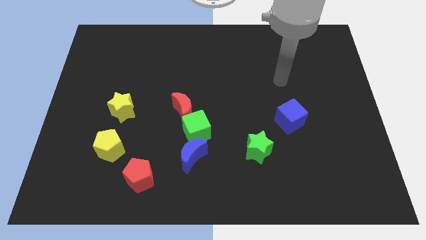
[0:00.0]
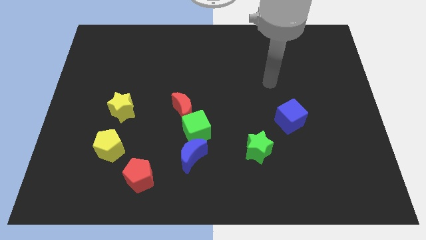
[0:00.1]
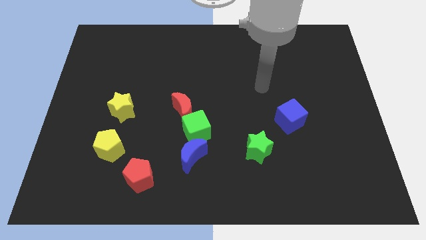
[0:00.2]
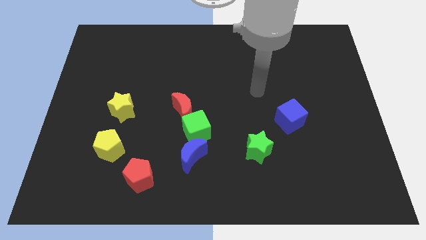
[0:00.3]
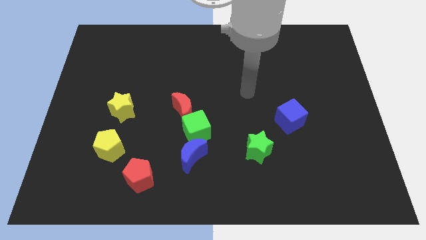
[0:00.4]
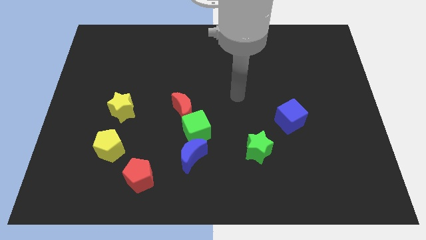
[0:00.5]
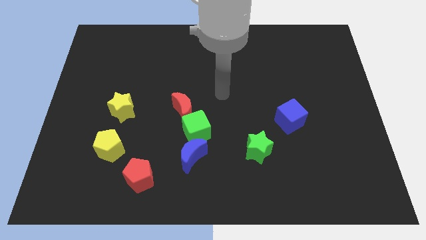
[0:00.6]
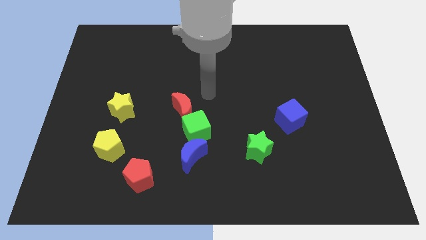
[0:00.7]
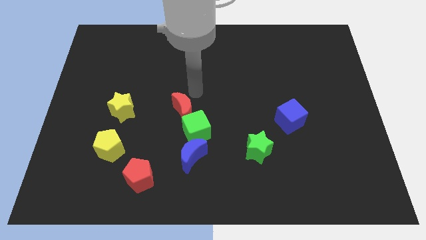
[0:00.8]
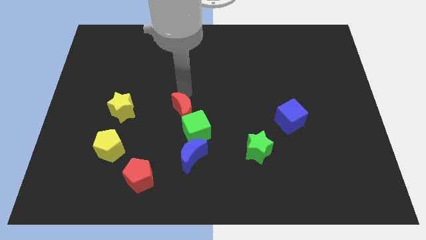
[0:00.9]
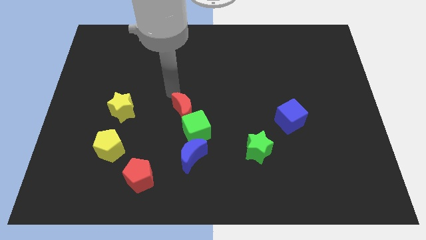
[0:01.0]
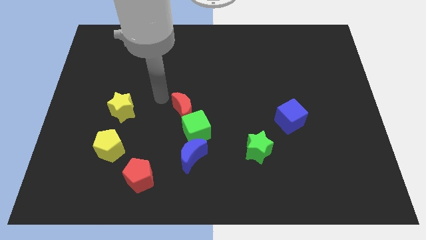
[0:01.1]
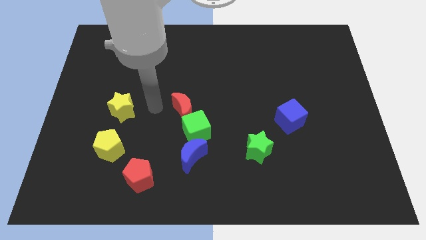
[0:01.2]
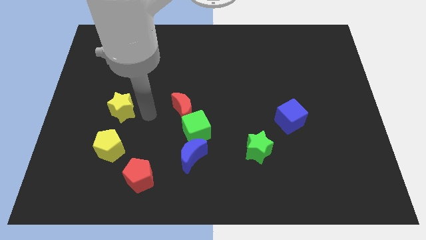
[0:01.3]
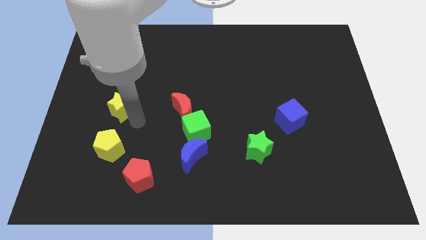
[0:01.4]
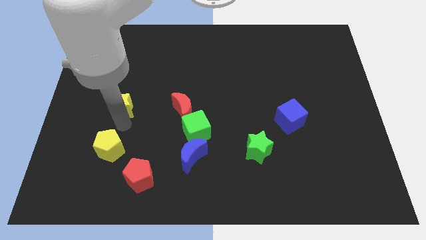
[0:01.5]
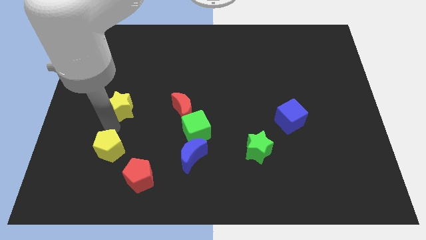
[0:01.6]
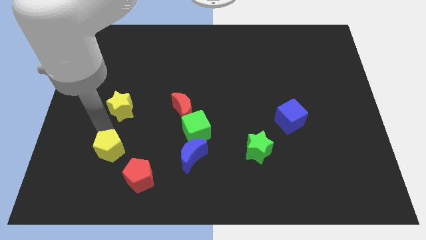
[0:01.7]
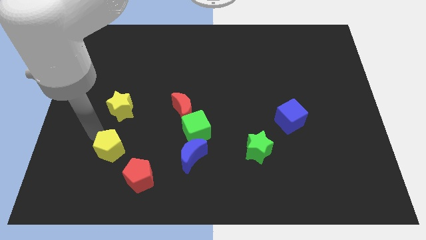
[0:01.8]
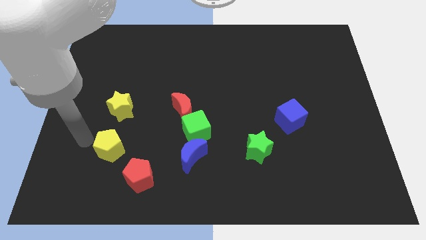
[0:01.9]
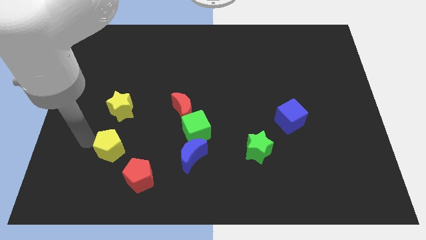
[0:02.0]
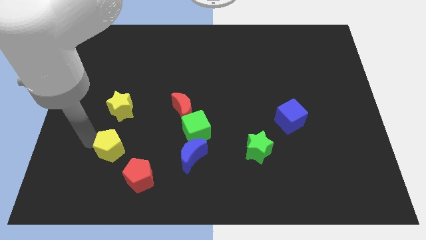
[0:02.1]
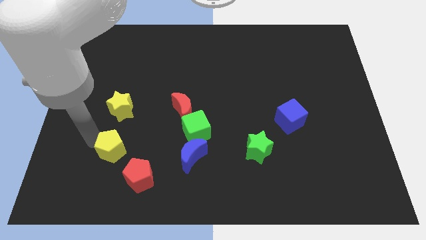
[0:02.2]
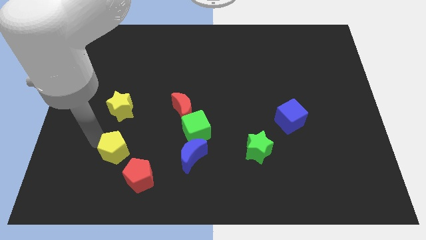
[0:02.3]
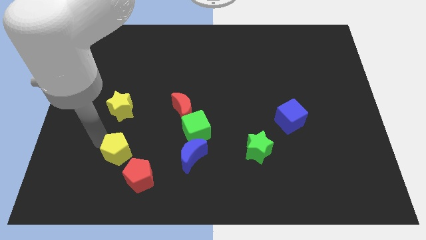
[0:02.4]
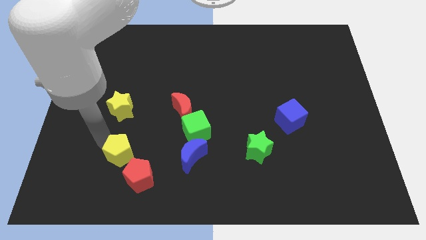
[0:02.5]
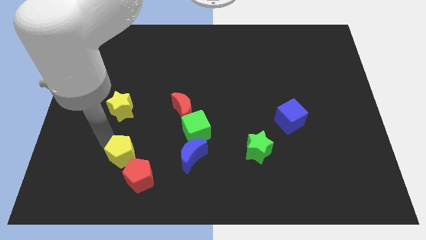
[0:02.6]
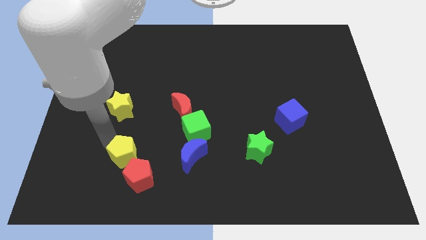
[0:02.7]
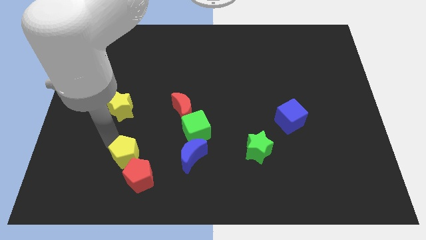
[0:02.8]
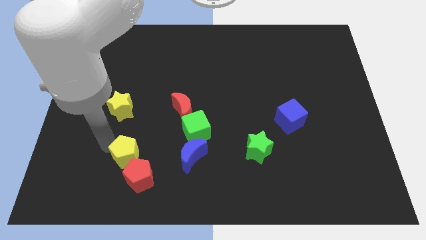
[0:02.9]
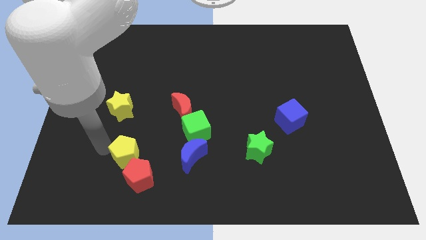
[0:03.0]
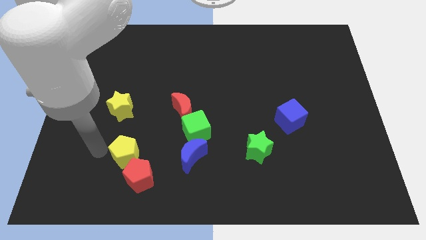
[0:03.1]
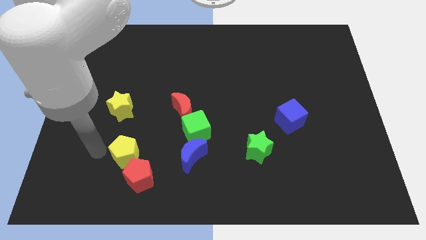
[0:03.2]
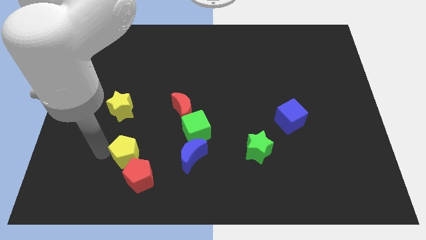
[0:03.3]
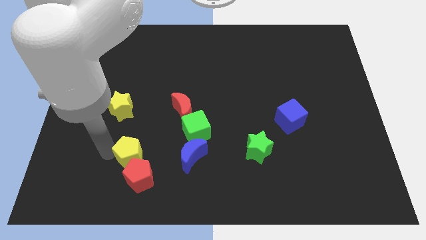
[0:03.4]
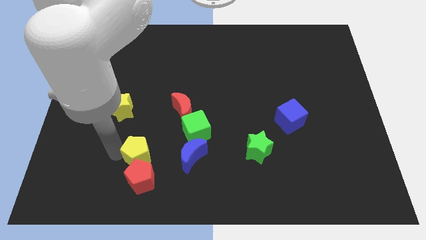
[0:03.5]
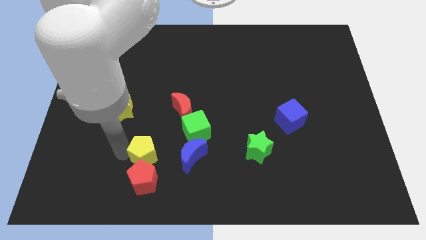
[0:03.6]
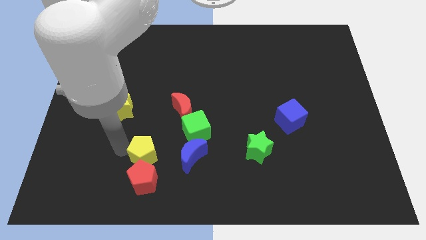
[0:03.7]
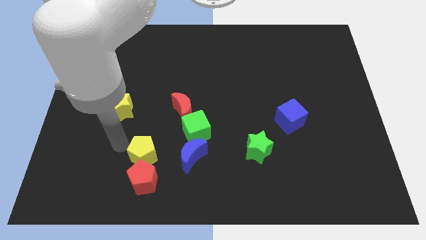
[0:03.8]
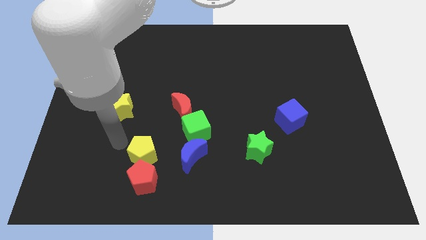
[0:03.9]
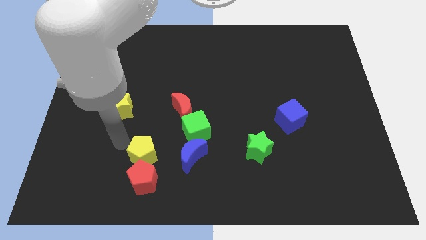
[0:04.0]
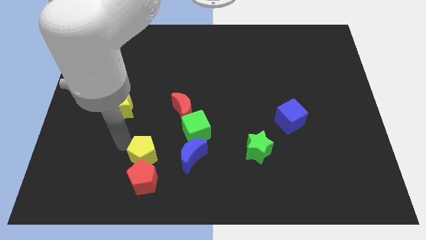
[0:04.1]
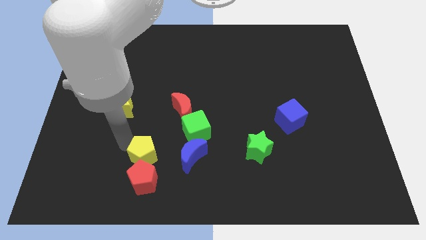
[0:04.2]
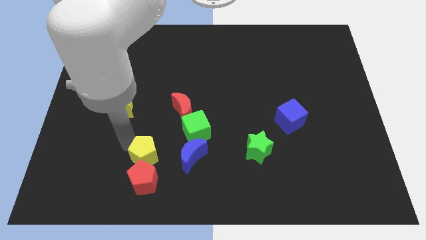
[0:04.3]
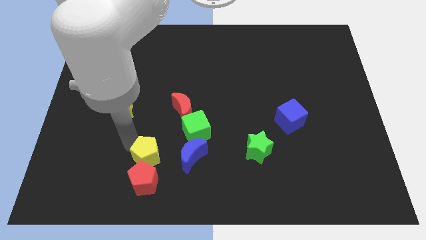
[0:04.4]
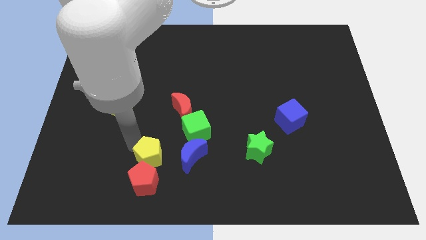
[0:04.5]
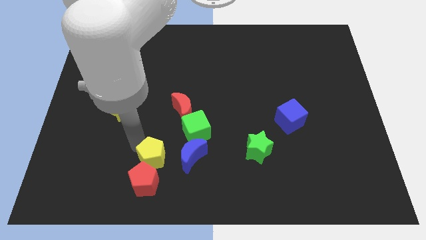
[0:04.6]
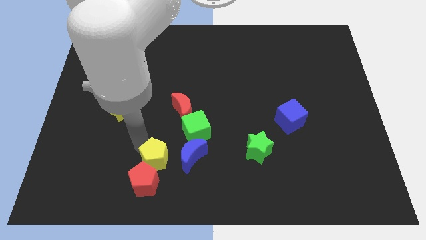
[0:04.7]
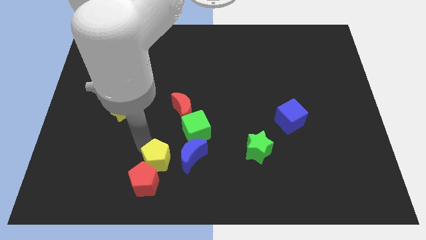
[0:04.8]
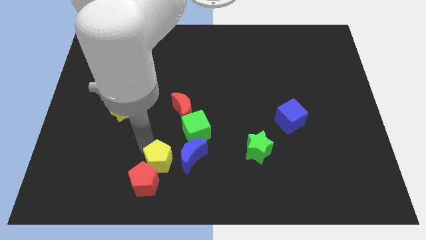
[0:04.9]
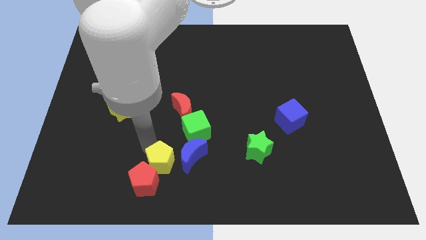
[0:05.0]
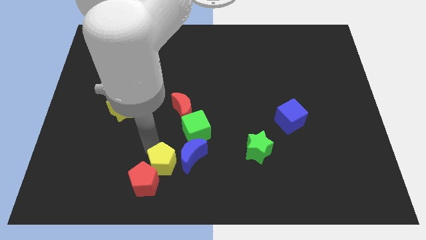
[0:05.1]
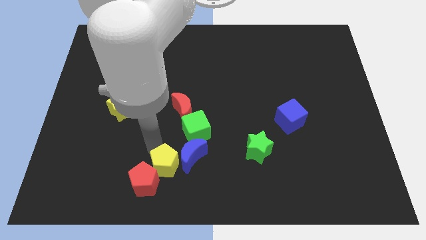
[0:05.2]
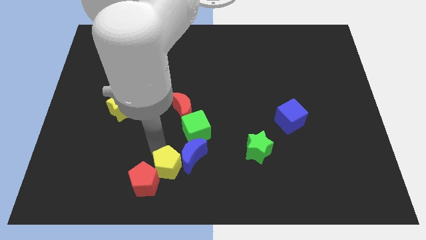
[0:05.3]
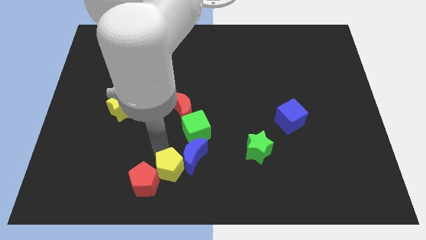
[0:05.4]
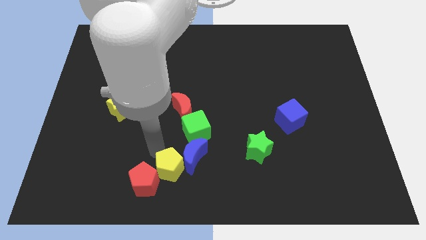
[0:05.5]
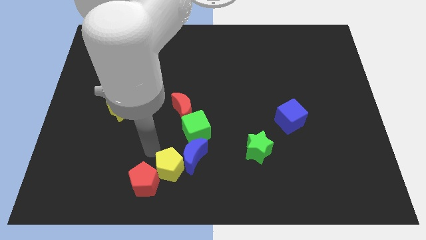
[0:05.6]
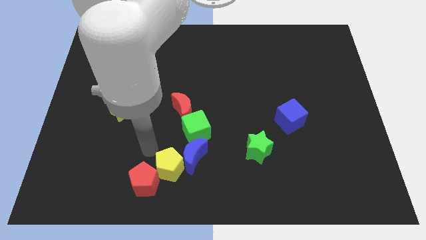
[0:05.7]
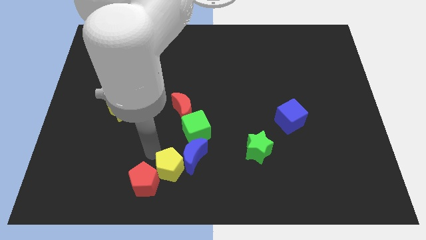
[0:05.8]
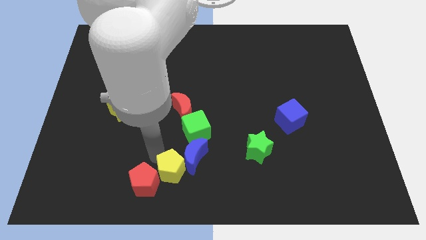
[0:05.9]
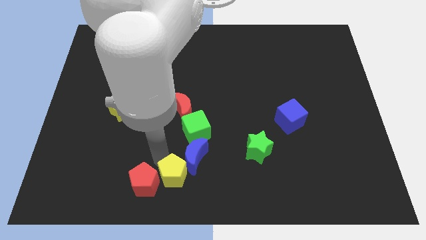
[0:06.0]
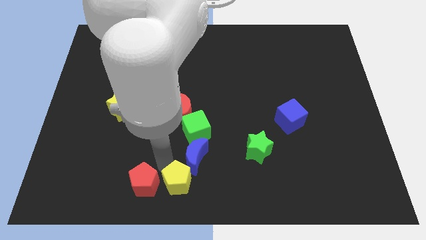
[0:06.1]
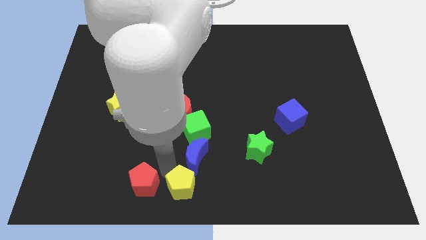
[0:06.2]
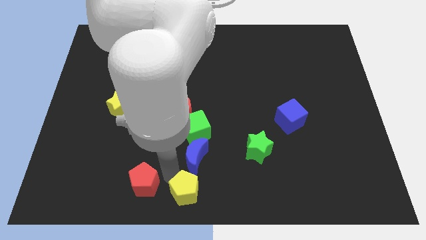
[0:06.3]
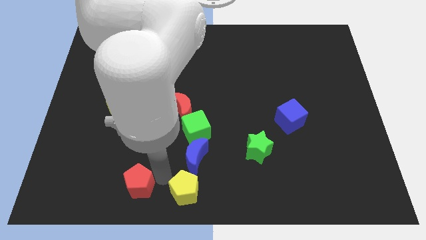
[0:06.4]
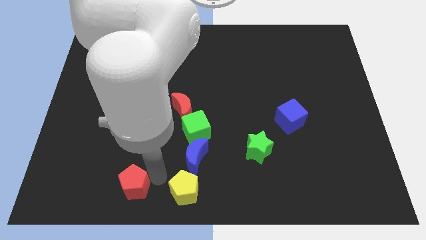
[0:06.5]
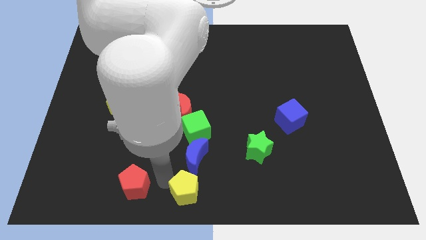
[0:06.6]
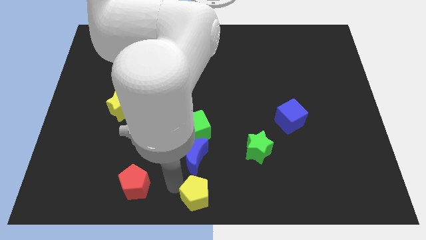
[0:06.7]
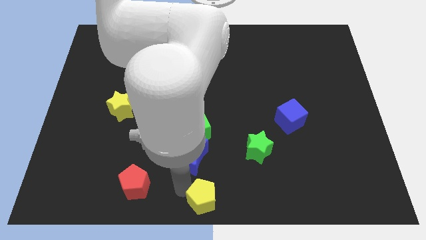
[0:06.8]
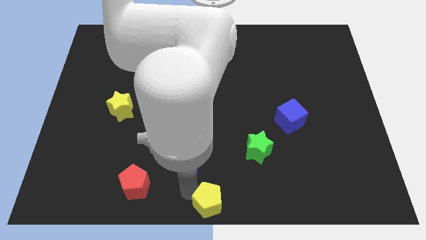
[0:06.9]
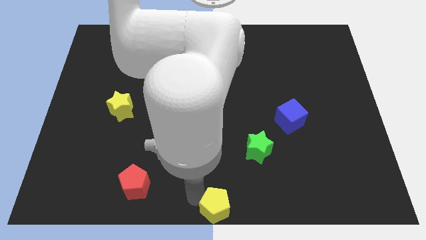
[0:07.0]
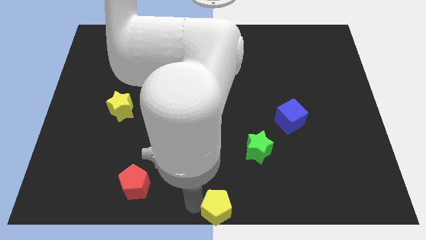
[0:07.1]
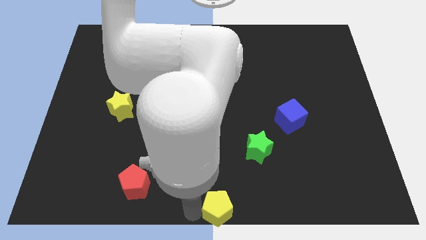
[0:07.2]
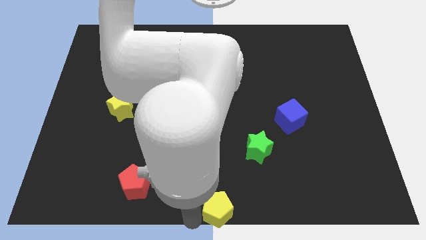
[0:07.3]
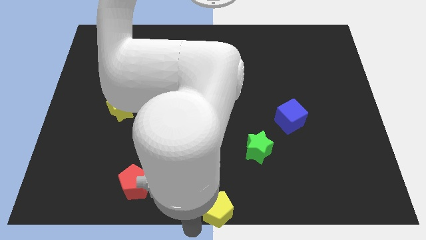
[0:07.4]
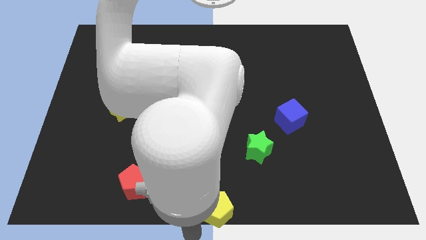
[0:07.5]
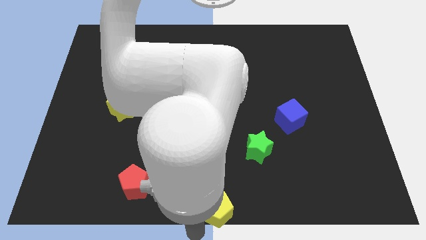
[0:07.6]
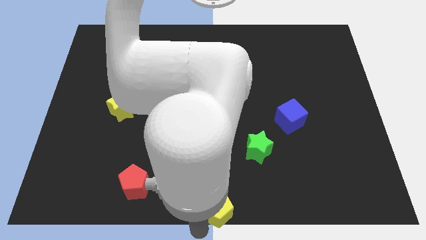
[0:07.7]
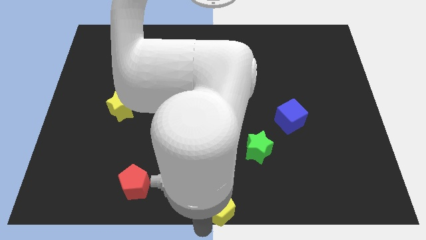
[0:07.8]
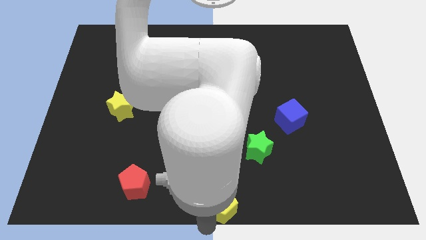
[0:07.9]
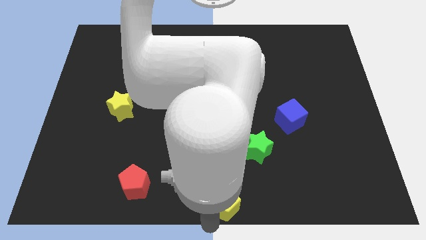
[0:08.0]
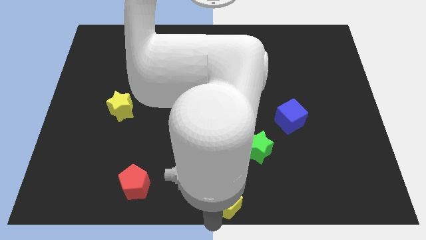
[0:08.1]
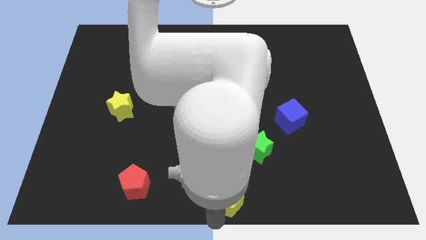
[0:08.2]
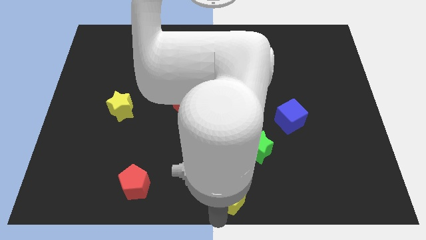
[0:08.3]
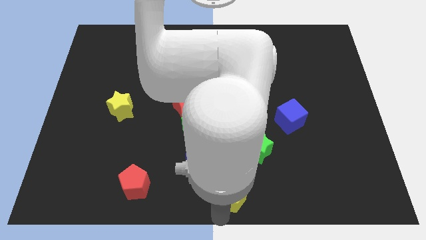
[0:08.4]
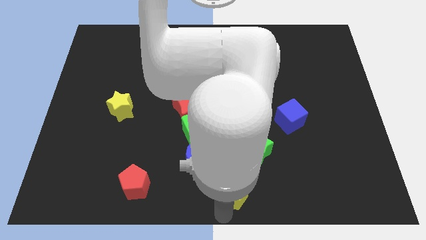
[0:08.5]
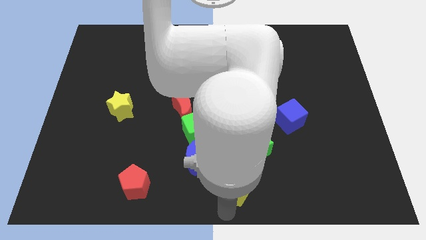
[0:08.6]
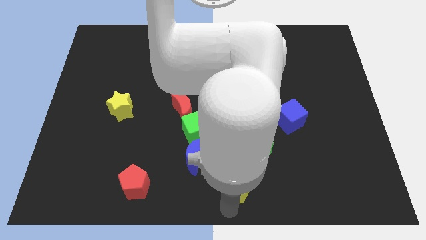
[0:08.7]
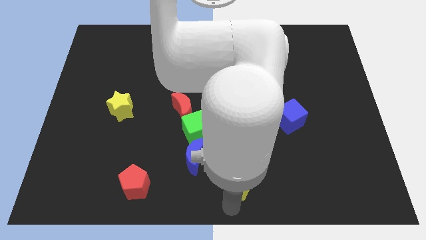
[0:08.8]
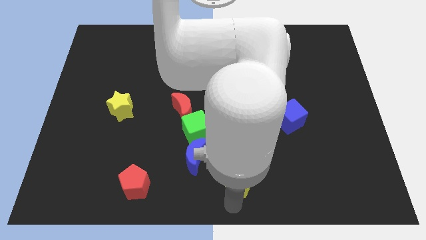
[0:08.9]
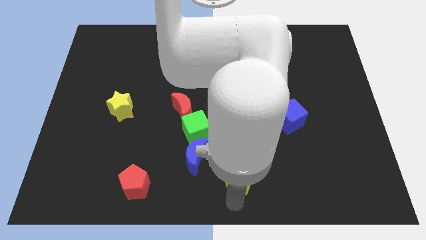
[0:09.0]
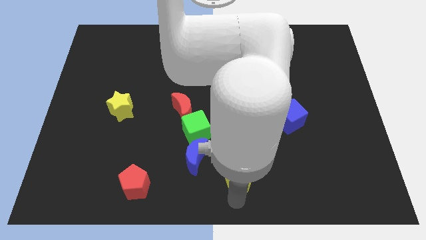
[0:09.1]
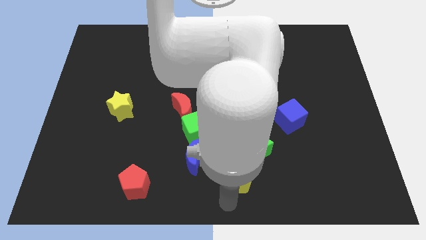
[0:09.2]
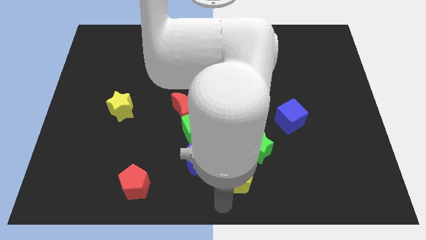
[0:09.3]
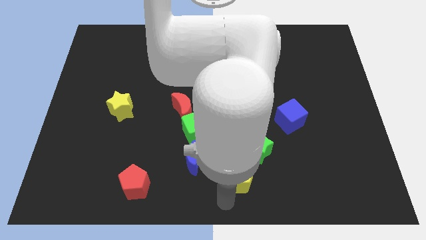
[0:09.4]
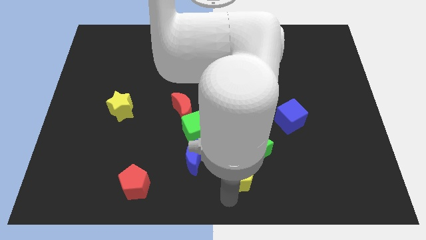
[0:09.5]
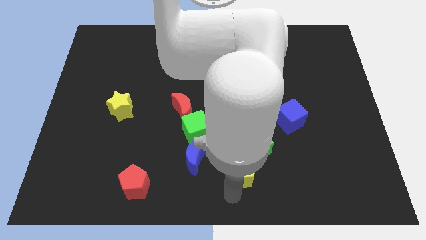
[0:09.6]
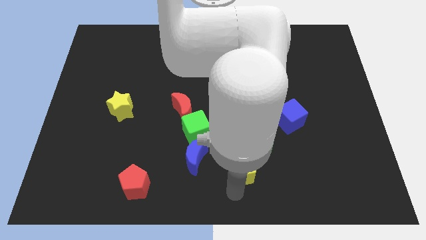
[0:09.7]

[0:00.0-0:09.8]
push the yellow pentagon towards the green star
